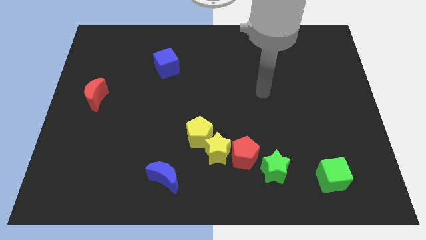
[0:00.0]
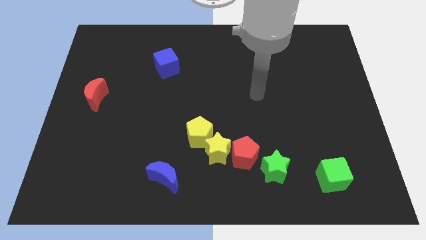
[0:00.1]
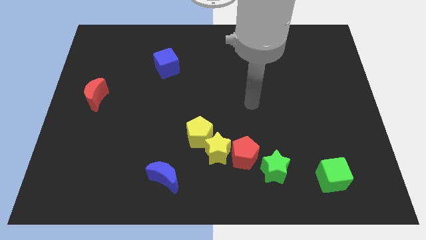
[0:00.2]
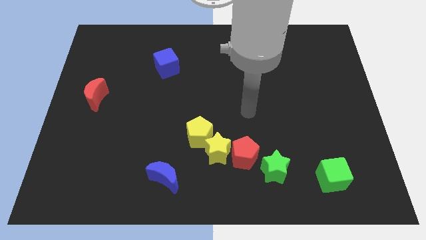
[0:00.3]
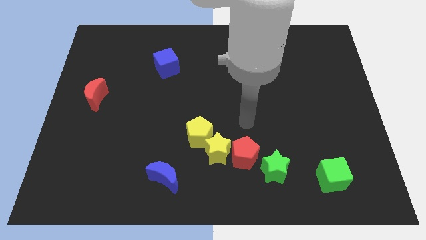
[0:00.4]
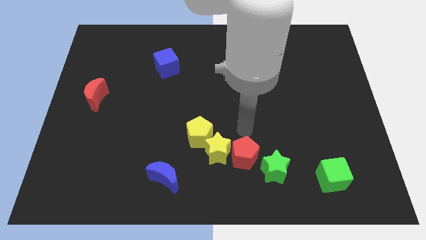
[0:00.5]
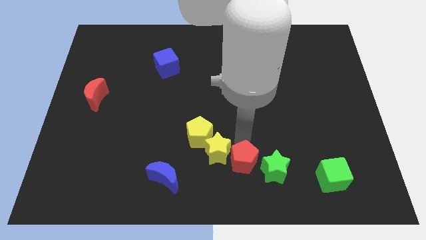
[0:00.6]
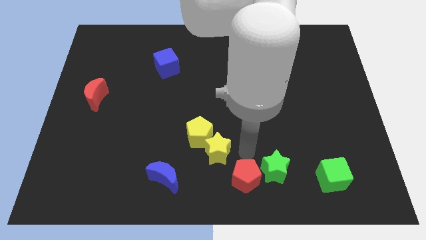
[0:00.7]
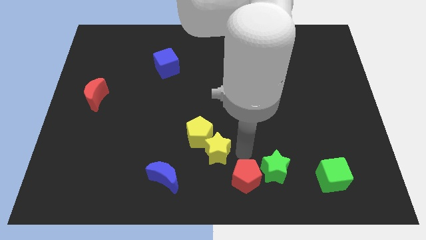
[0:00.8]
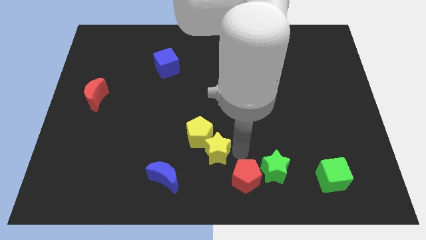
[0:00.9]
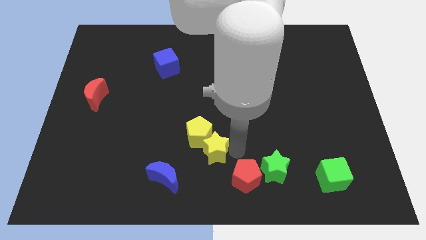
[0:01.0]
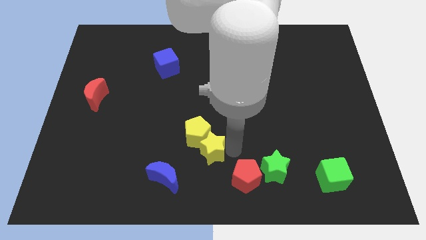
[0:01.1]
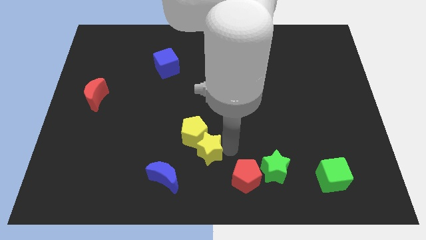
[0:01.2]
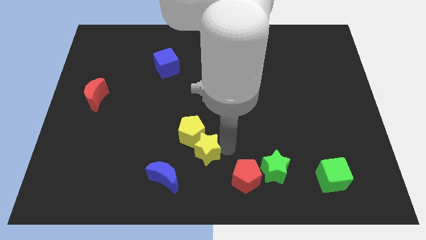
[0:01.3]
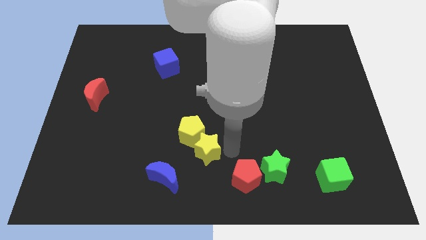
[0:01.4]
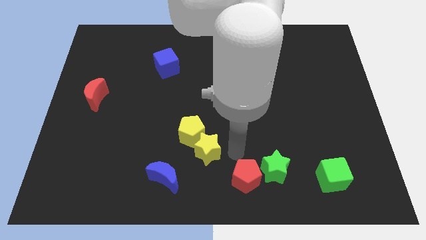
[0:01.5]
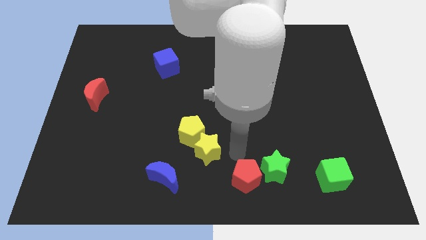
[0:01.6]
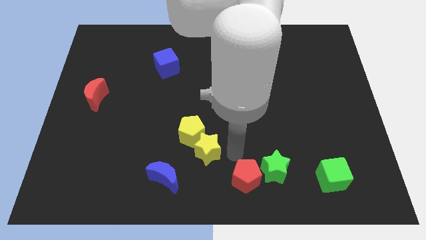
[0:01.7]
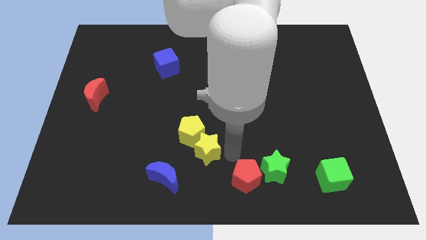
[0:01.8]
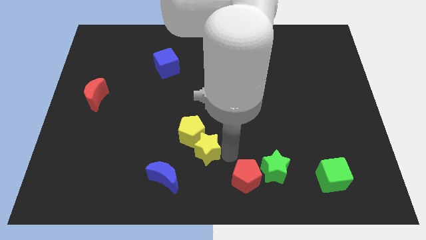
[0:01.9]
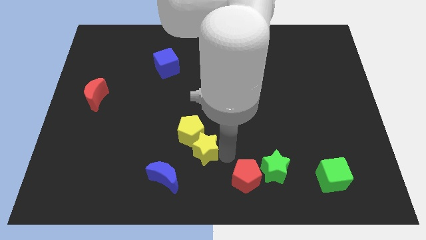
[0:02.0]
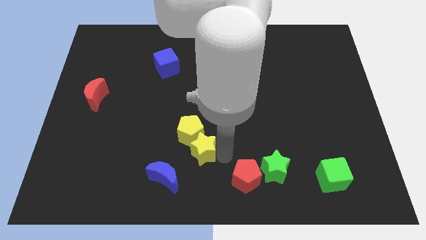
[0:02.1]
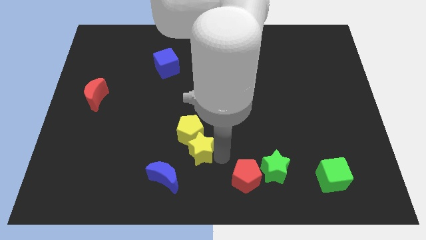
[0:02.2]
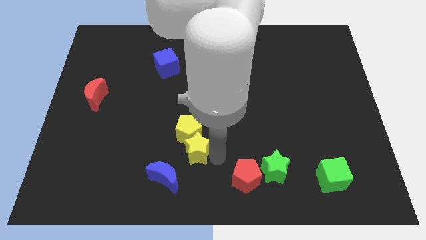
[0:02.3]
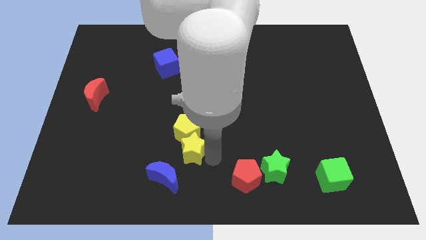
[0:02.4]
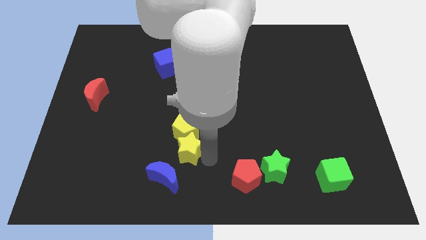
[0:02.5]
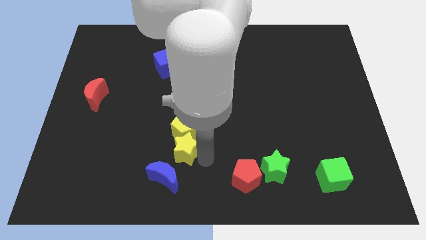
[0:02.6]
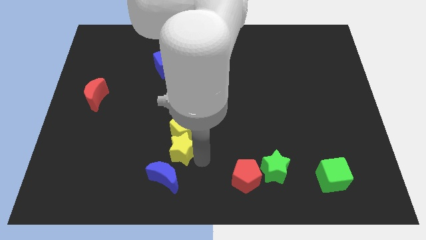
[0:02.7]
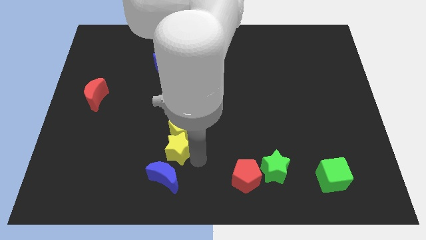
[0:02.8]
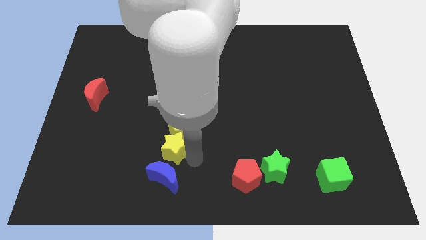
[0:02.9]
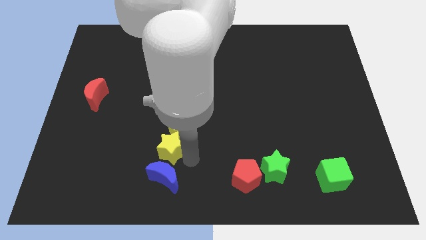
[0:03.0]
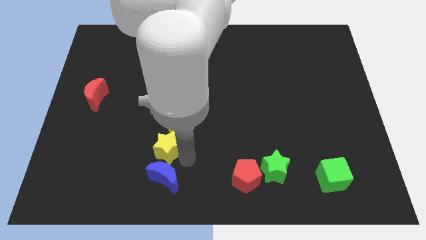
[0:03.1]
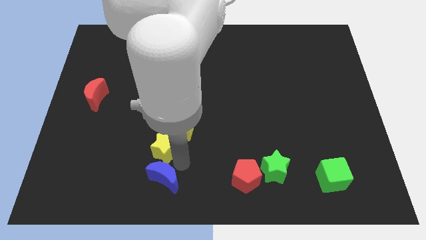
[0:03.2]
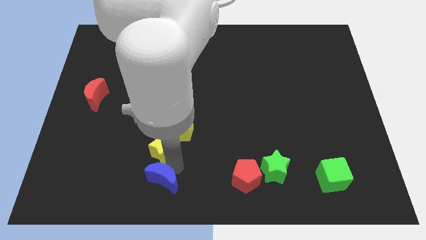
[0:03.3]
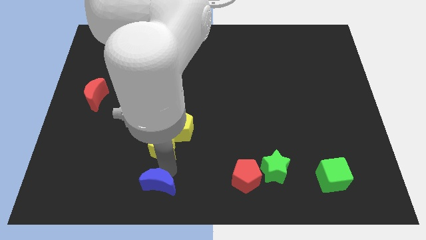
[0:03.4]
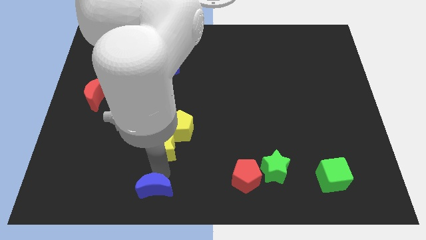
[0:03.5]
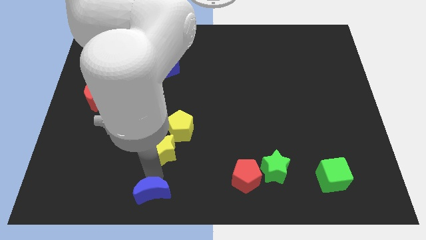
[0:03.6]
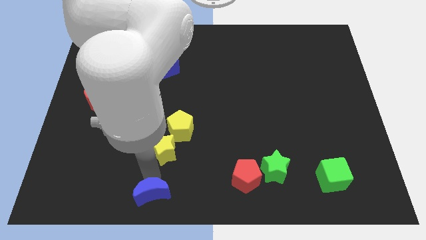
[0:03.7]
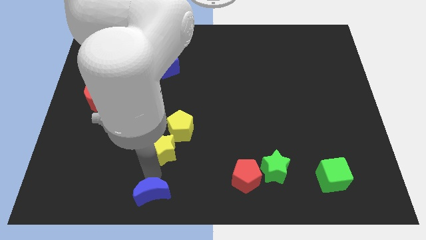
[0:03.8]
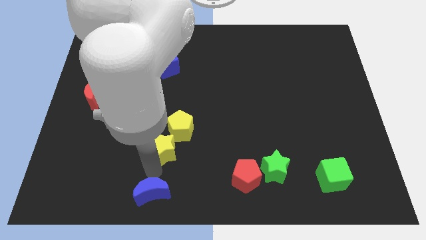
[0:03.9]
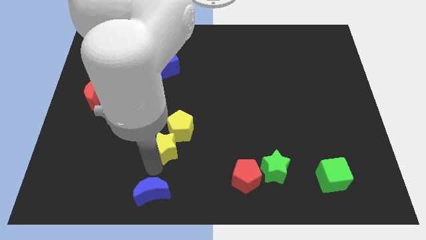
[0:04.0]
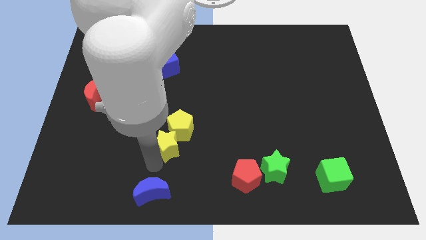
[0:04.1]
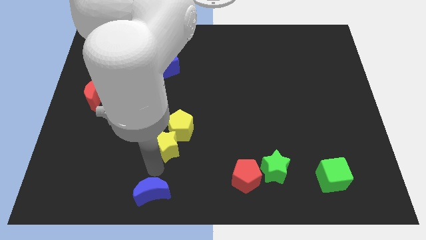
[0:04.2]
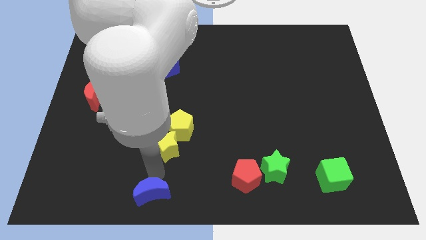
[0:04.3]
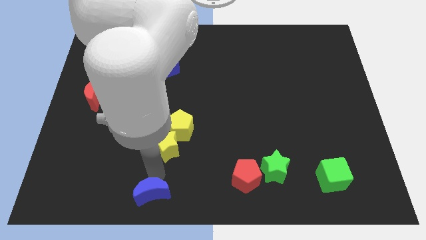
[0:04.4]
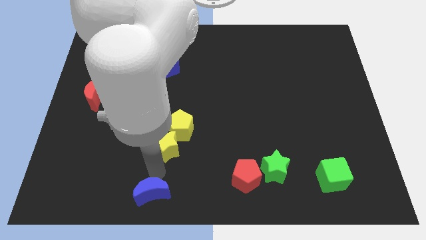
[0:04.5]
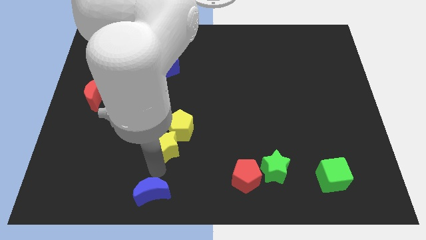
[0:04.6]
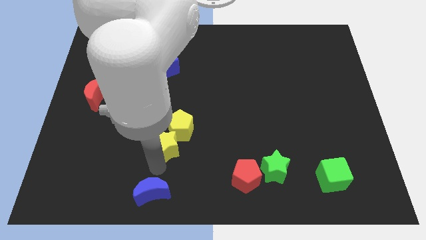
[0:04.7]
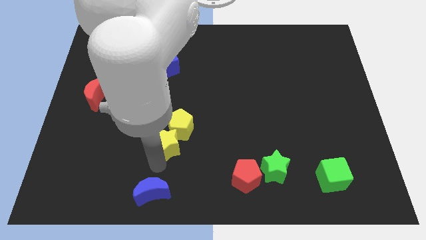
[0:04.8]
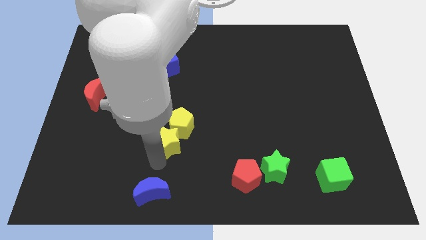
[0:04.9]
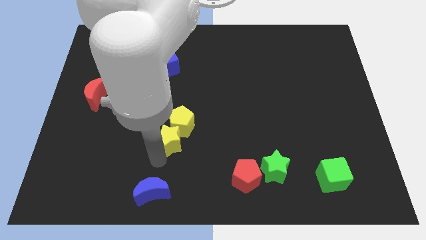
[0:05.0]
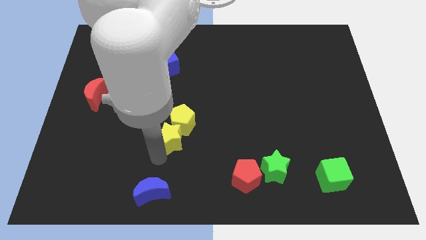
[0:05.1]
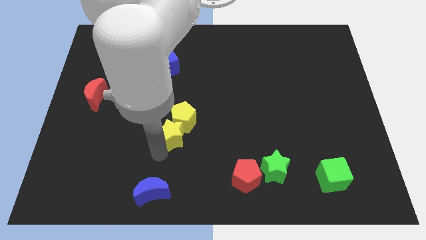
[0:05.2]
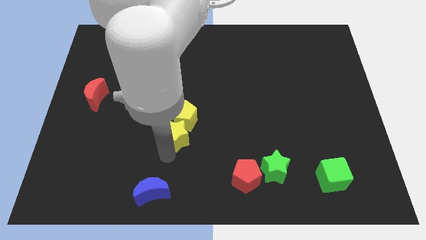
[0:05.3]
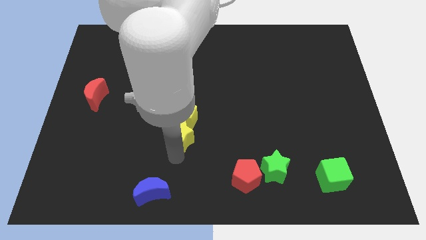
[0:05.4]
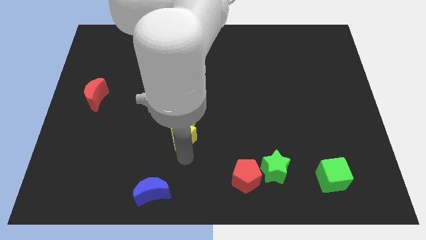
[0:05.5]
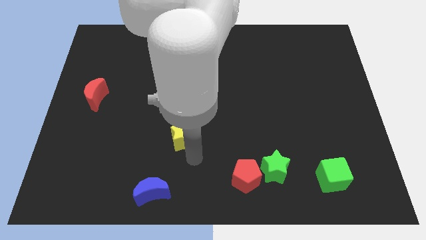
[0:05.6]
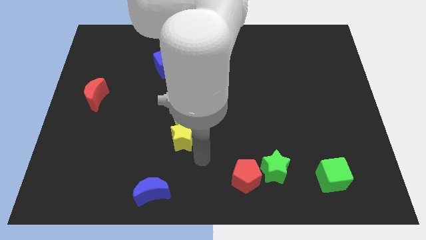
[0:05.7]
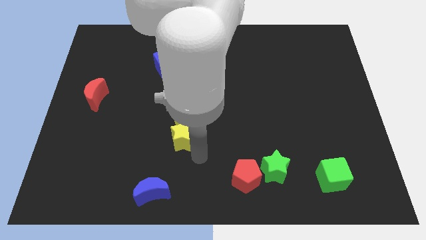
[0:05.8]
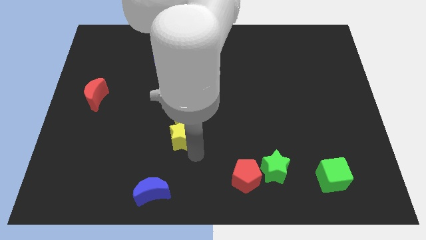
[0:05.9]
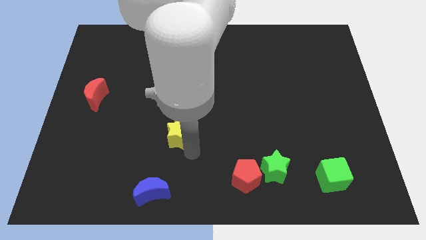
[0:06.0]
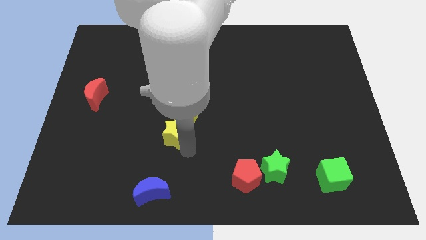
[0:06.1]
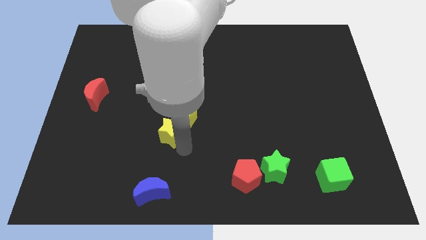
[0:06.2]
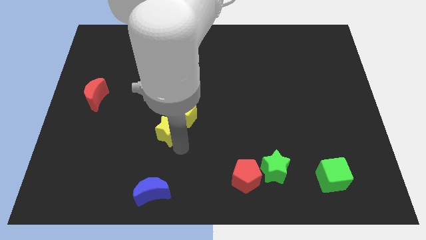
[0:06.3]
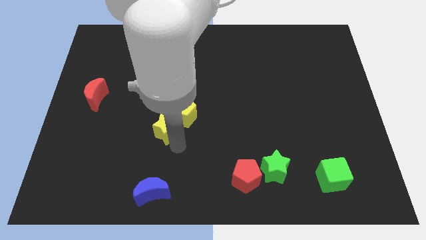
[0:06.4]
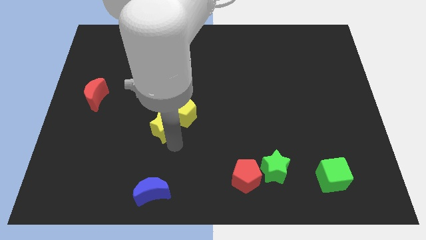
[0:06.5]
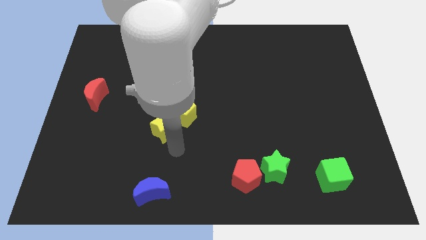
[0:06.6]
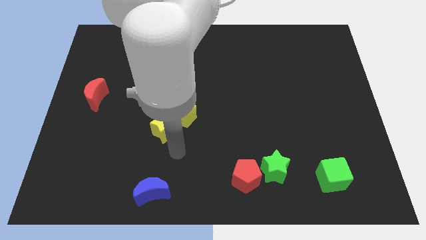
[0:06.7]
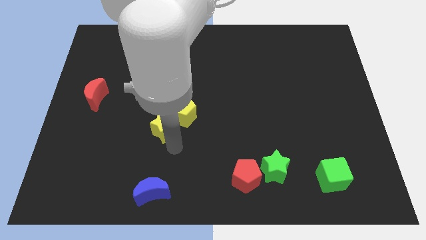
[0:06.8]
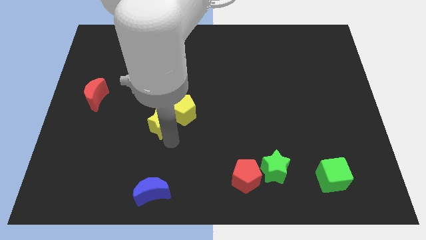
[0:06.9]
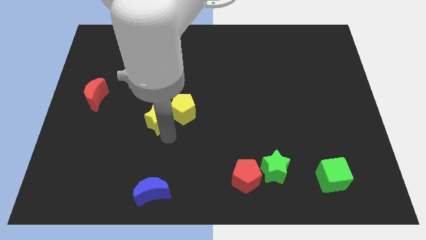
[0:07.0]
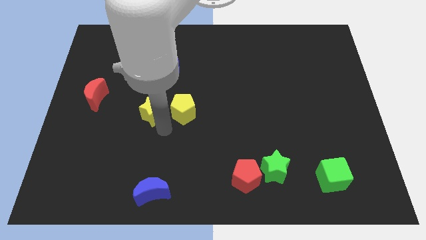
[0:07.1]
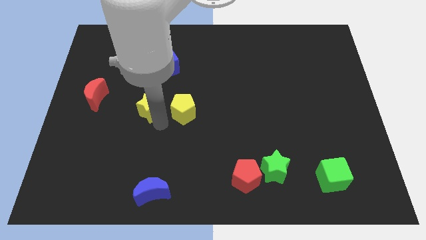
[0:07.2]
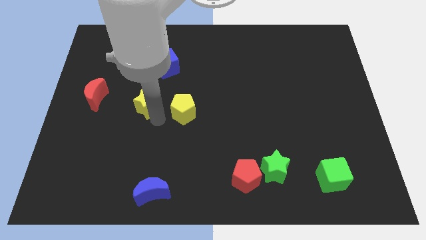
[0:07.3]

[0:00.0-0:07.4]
move the yellow star upwards and to the left diagonally

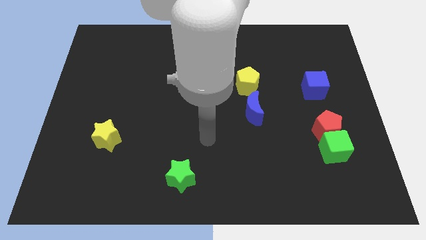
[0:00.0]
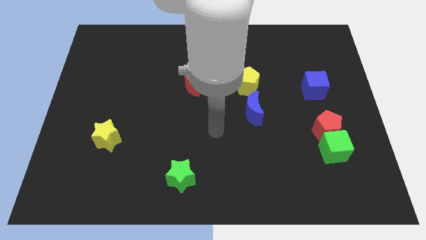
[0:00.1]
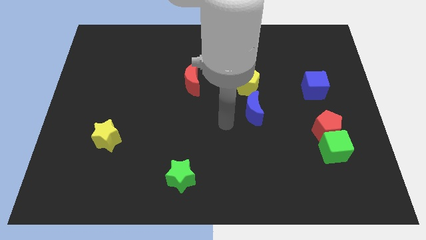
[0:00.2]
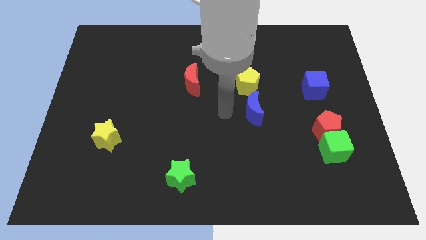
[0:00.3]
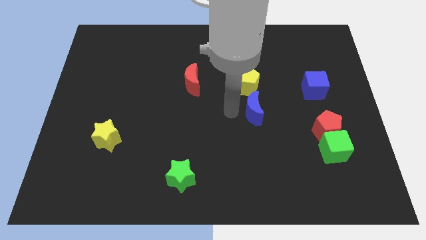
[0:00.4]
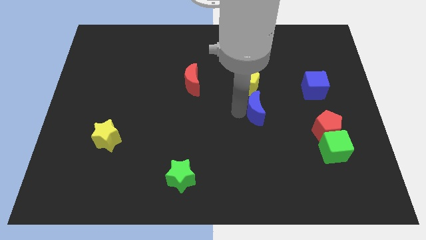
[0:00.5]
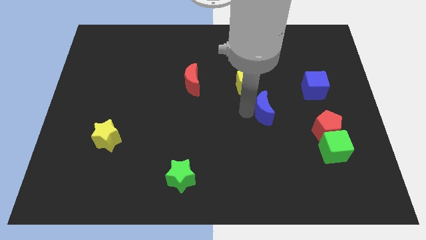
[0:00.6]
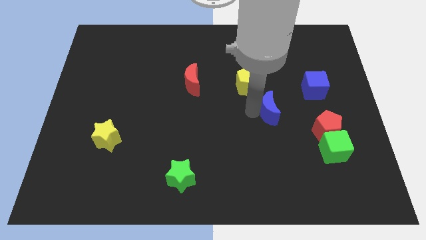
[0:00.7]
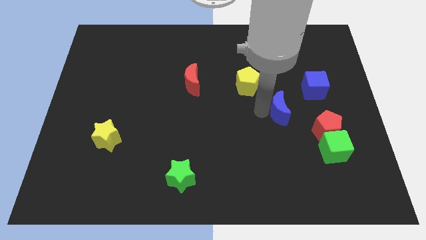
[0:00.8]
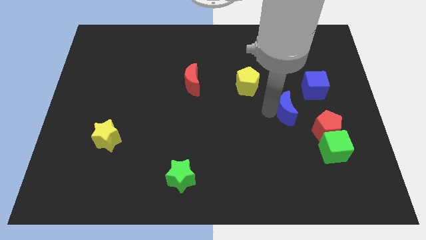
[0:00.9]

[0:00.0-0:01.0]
slightly slide the blue moon right
